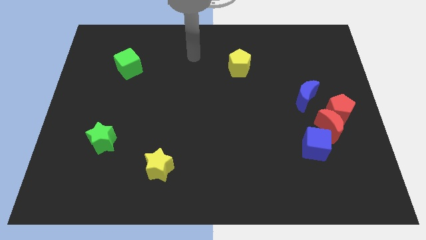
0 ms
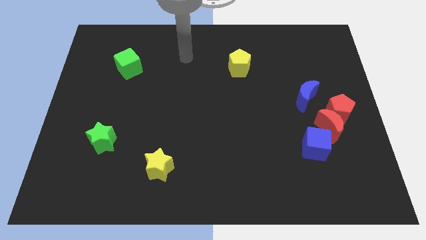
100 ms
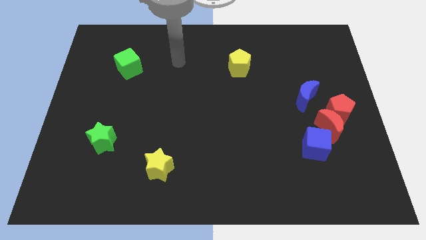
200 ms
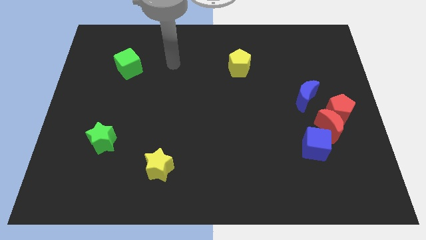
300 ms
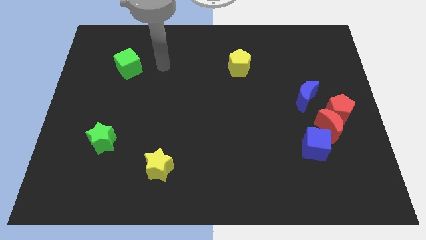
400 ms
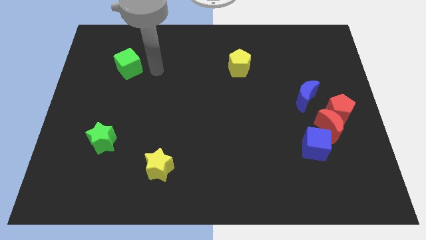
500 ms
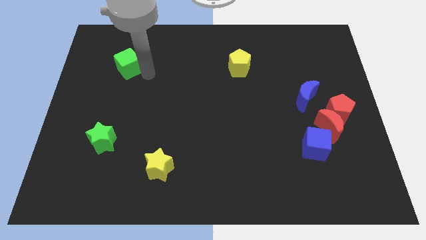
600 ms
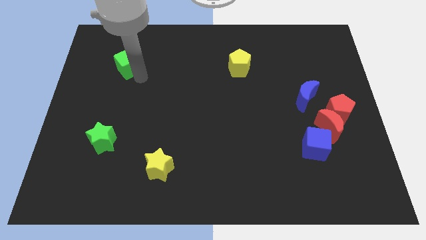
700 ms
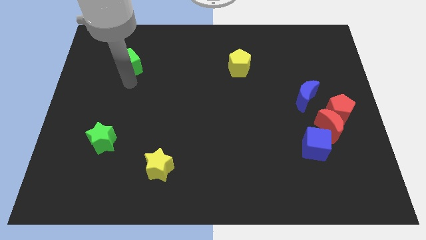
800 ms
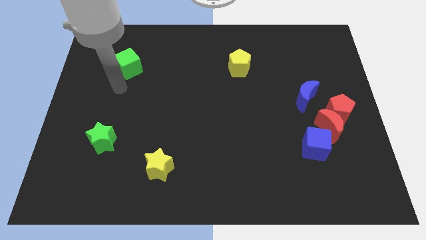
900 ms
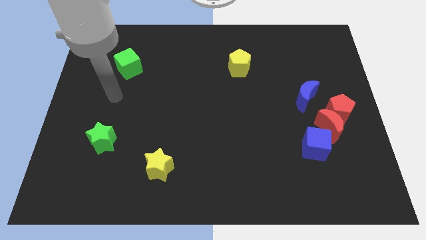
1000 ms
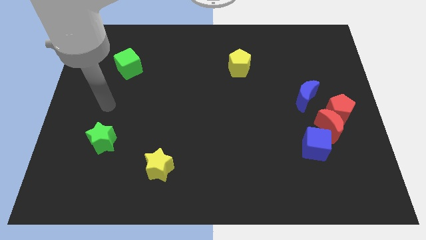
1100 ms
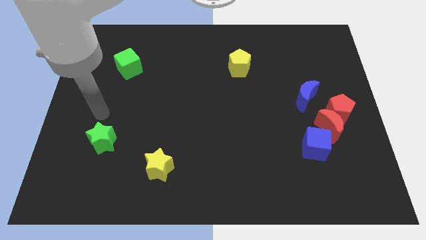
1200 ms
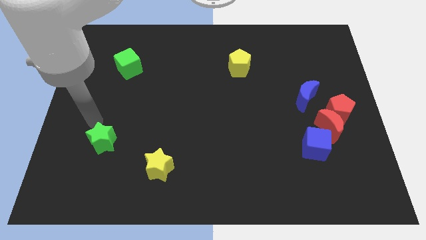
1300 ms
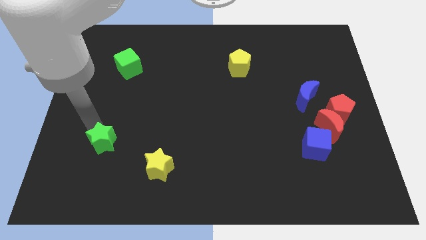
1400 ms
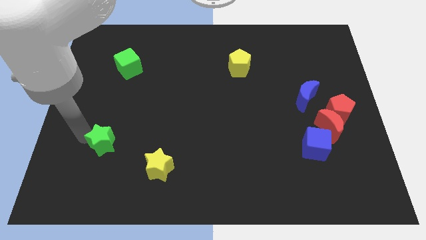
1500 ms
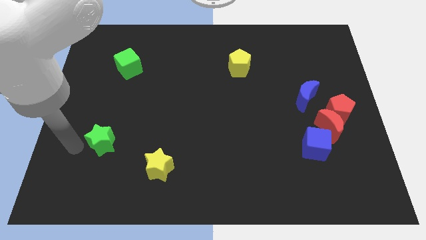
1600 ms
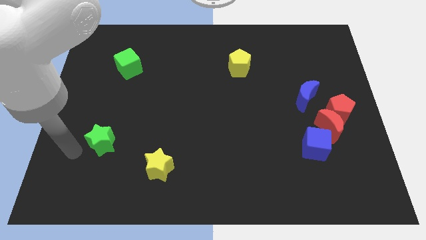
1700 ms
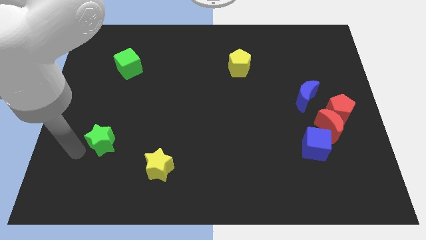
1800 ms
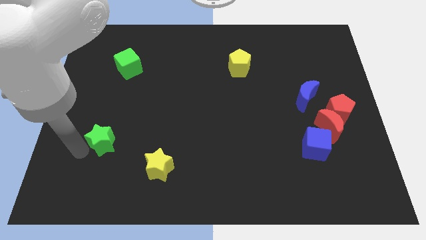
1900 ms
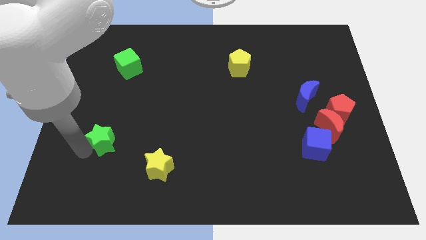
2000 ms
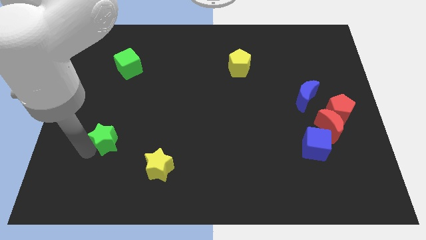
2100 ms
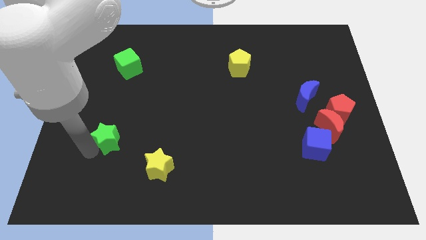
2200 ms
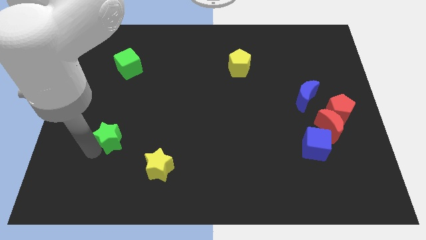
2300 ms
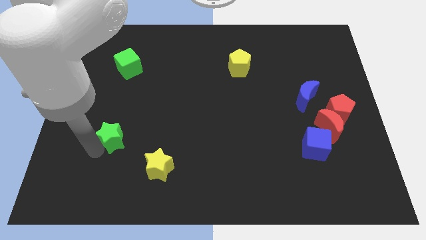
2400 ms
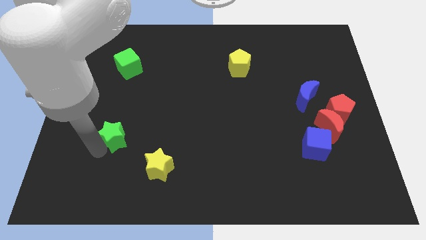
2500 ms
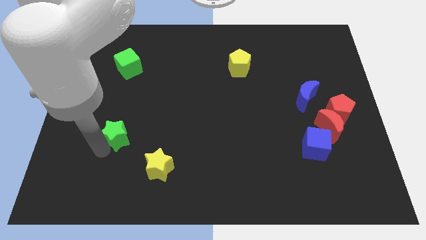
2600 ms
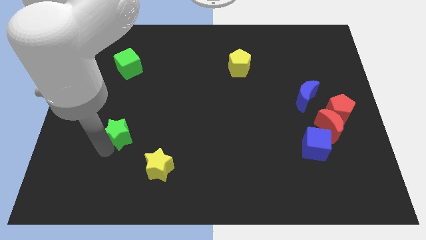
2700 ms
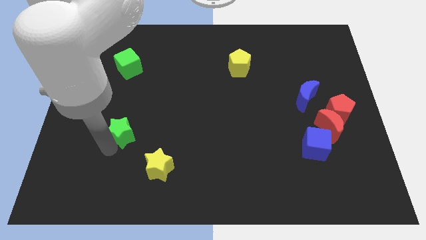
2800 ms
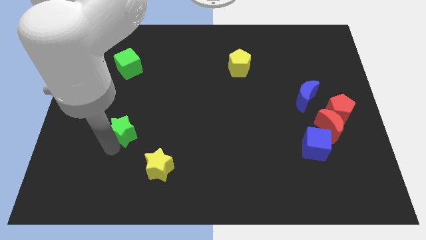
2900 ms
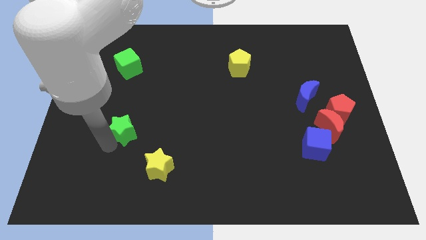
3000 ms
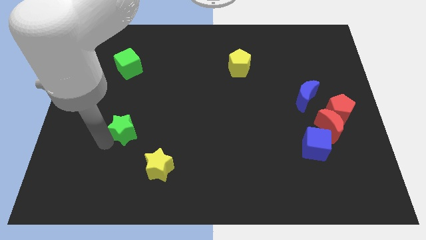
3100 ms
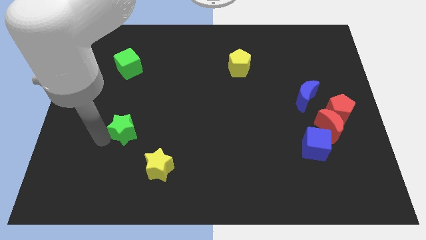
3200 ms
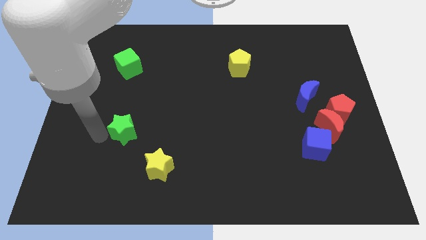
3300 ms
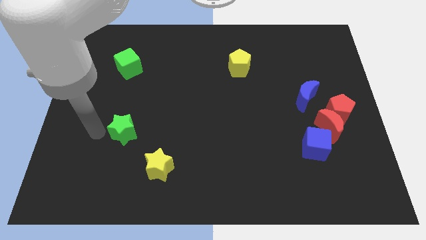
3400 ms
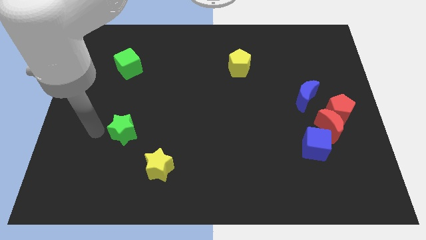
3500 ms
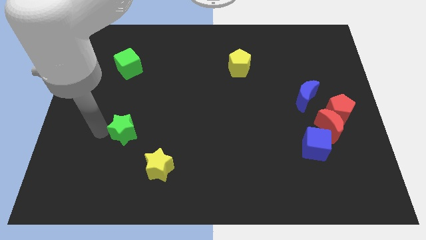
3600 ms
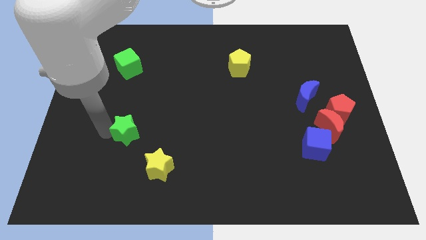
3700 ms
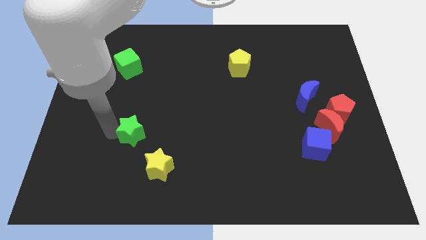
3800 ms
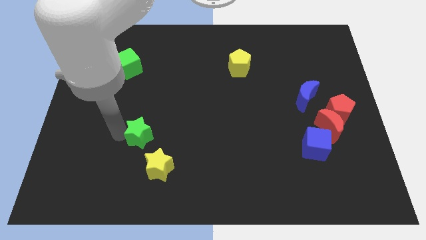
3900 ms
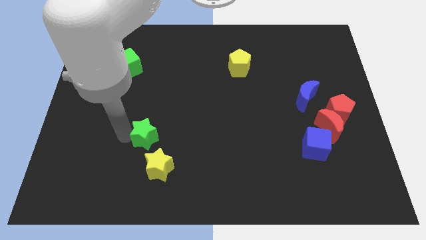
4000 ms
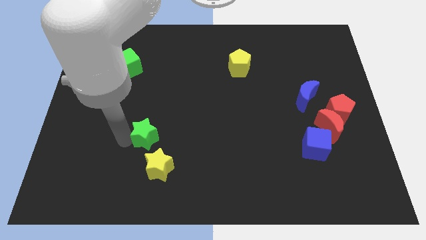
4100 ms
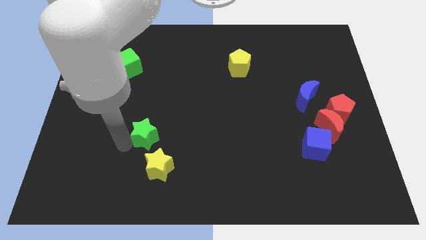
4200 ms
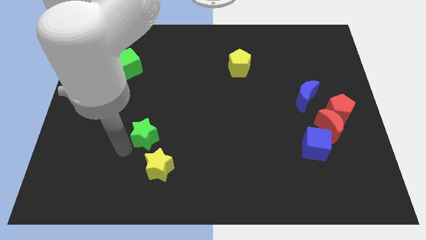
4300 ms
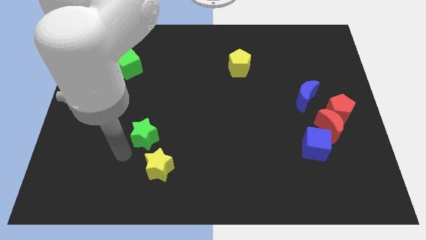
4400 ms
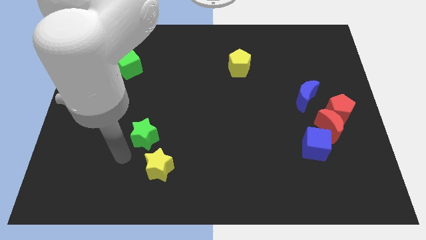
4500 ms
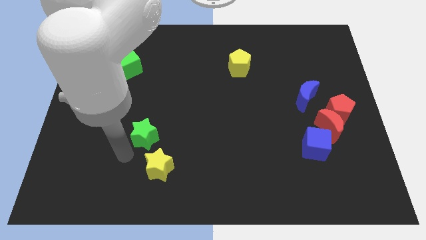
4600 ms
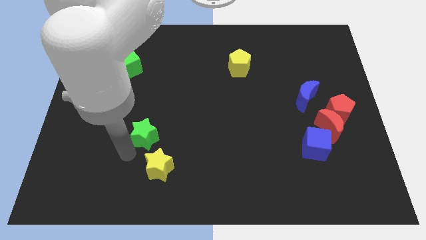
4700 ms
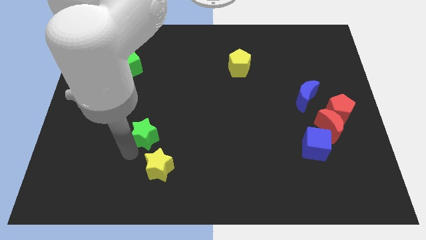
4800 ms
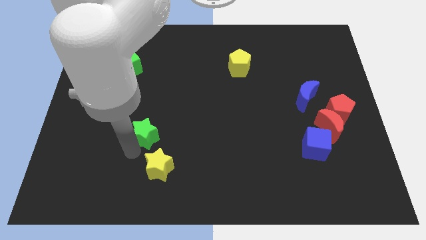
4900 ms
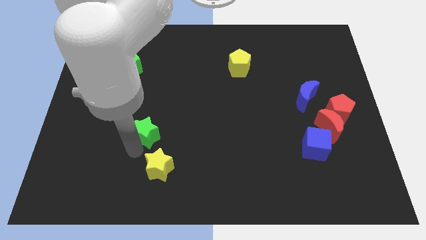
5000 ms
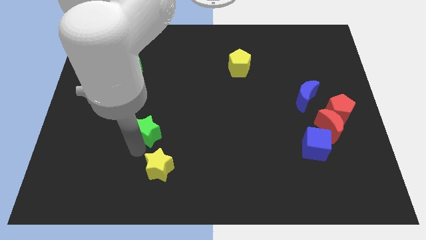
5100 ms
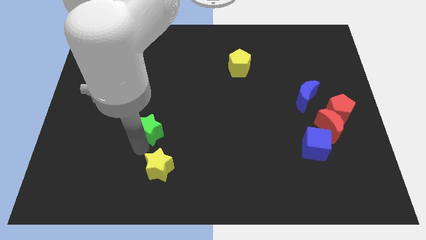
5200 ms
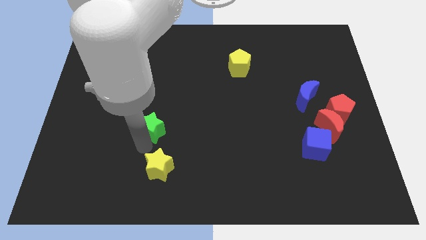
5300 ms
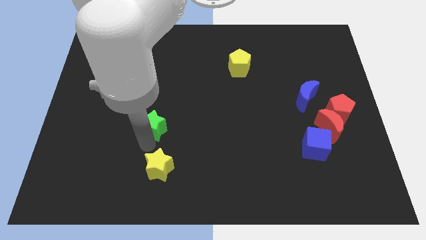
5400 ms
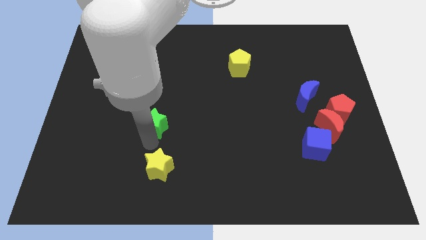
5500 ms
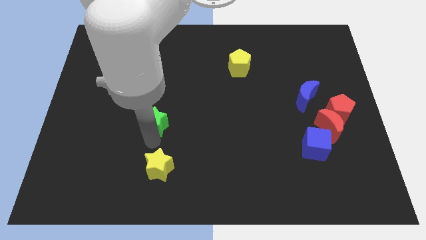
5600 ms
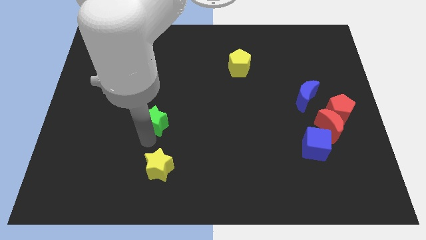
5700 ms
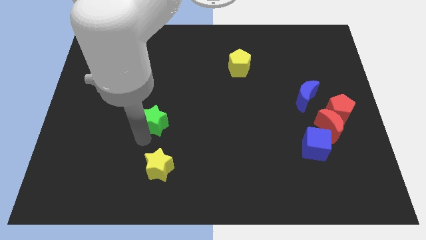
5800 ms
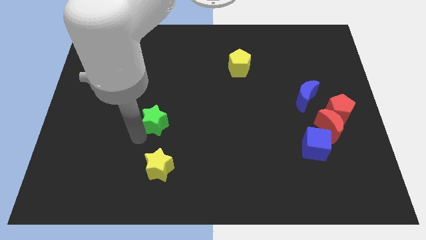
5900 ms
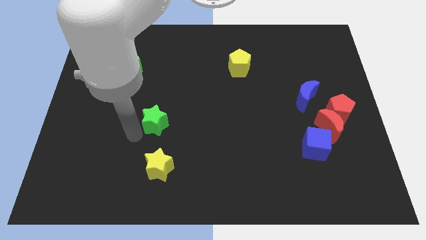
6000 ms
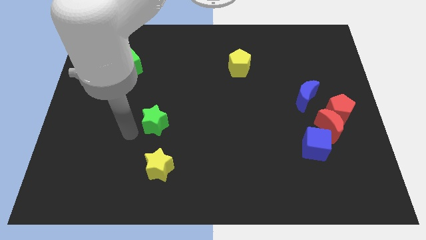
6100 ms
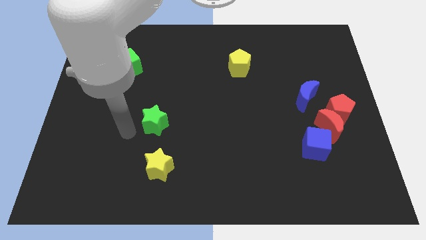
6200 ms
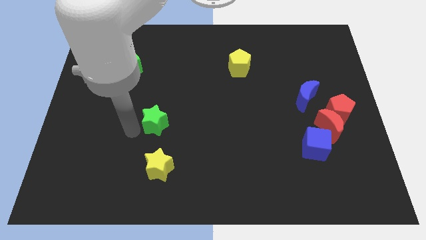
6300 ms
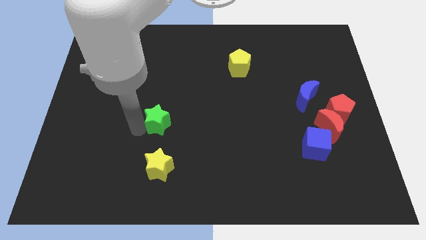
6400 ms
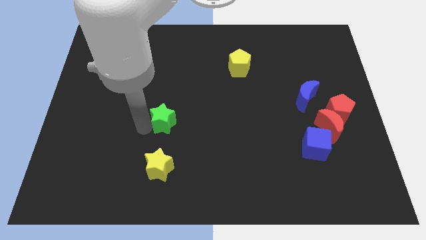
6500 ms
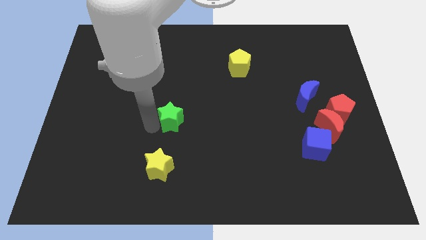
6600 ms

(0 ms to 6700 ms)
move the green star to the middle of the board

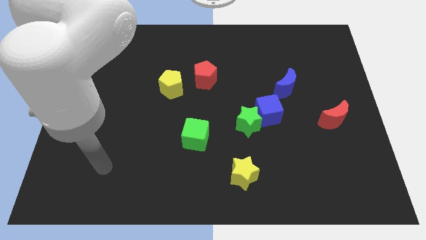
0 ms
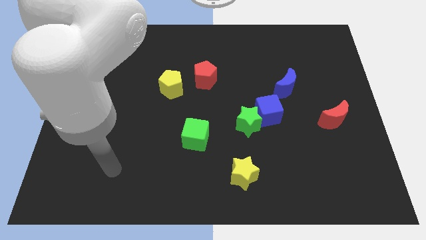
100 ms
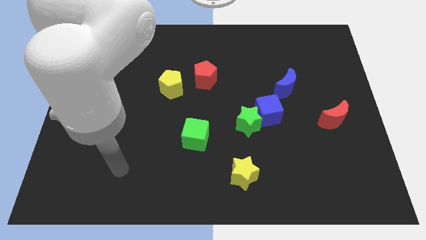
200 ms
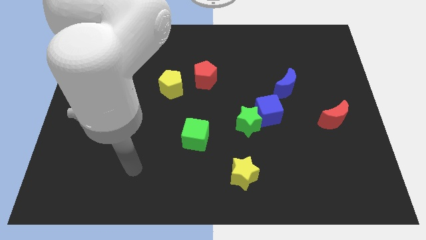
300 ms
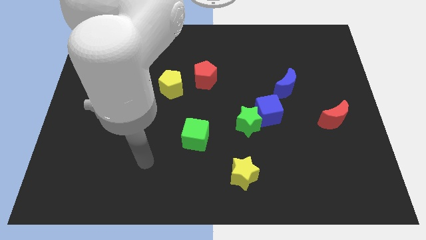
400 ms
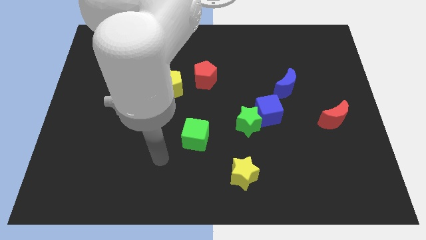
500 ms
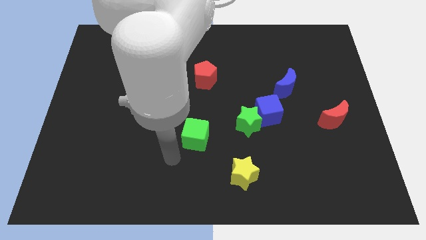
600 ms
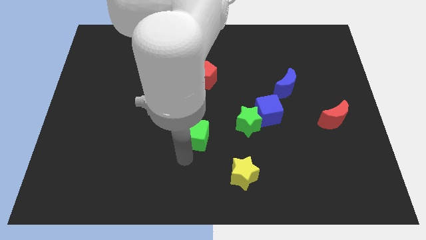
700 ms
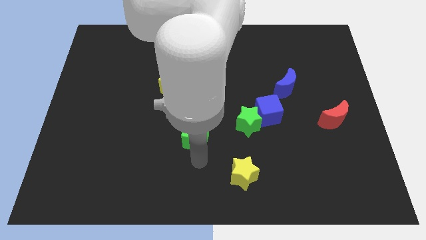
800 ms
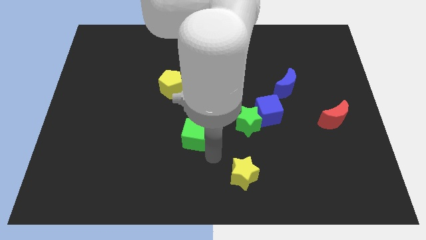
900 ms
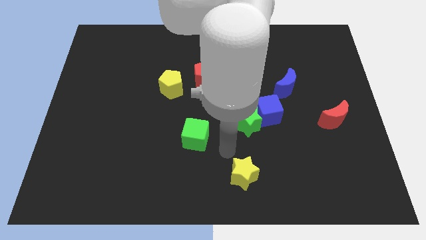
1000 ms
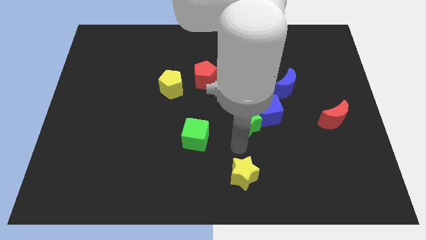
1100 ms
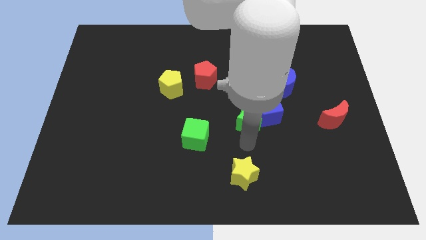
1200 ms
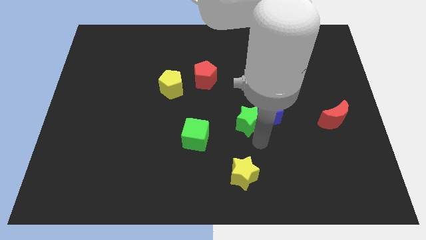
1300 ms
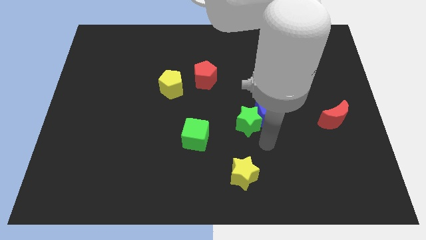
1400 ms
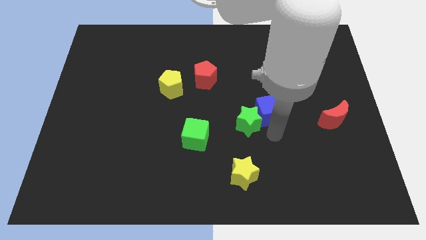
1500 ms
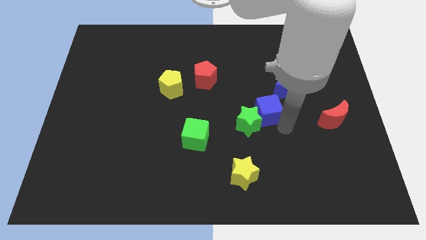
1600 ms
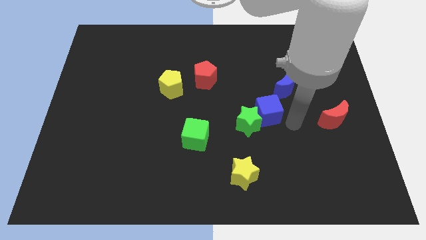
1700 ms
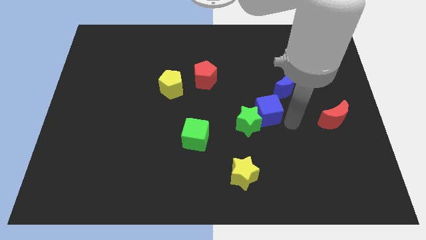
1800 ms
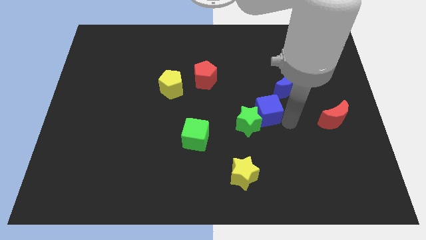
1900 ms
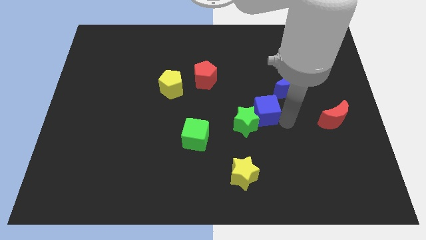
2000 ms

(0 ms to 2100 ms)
push the blue cube to the middle
